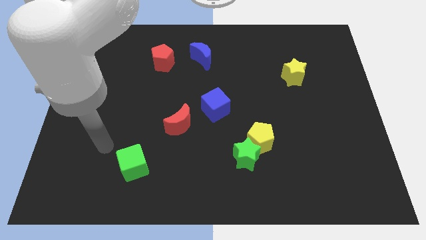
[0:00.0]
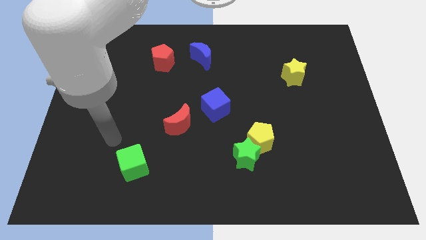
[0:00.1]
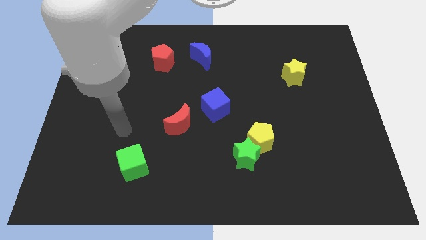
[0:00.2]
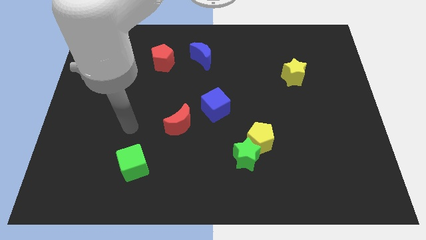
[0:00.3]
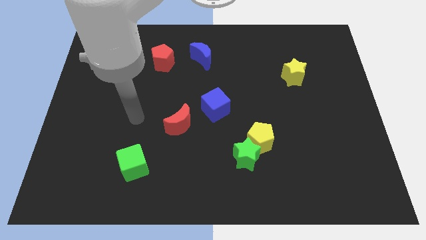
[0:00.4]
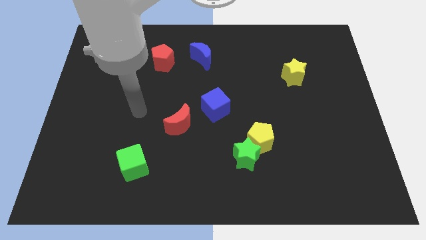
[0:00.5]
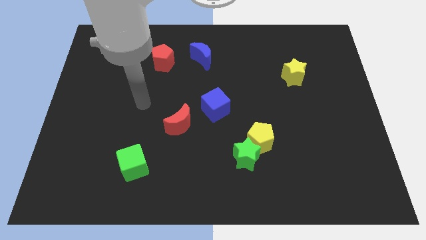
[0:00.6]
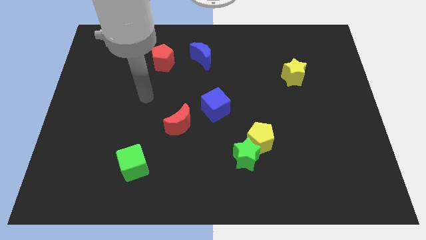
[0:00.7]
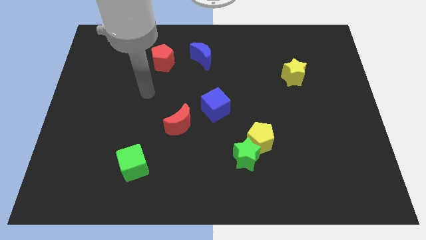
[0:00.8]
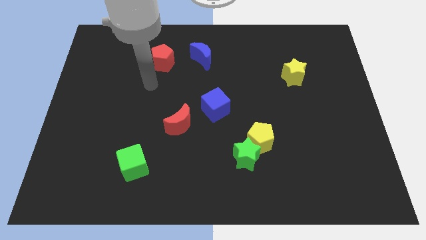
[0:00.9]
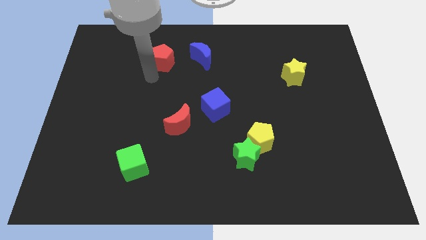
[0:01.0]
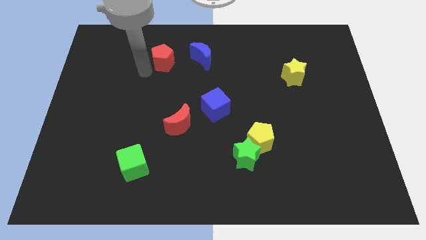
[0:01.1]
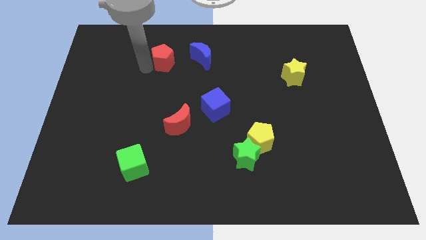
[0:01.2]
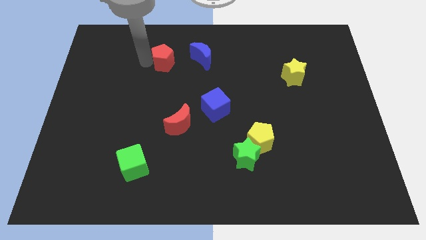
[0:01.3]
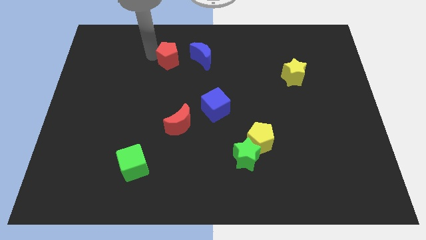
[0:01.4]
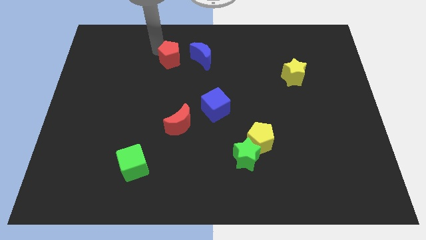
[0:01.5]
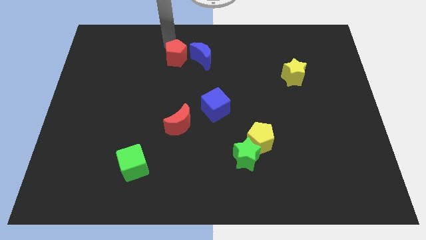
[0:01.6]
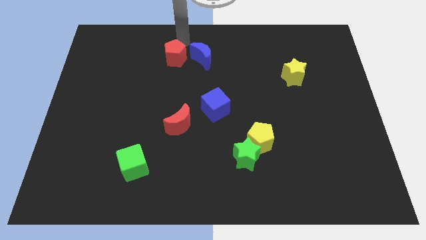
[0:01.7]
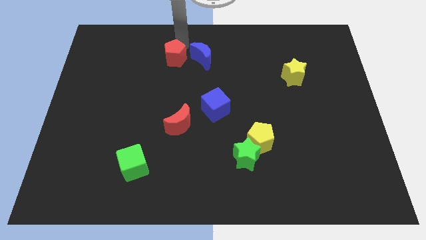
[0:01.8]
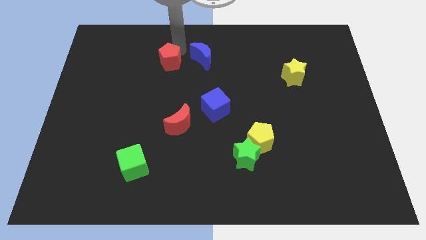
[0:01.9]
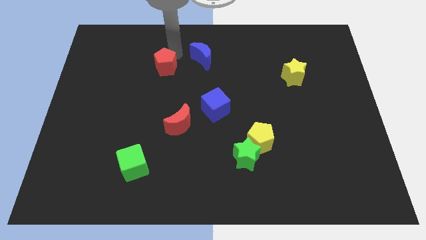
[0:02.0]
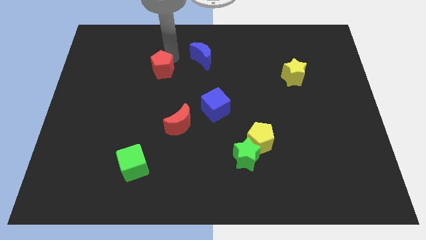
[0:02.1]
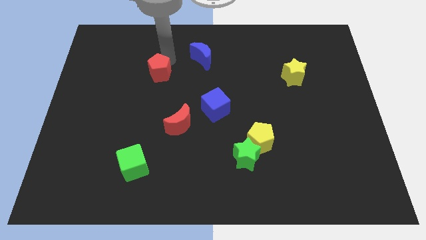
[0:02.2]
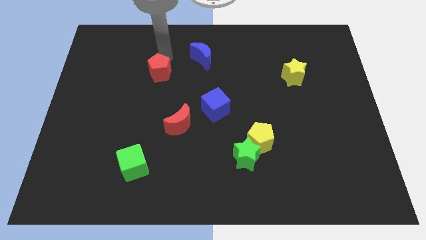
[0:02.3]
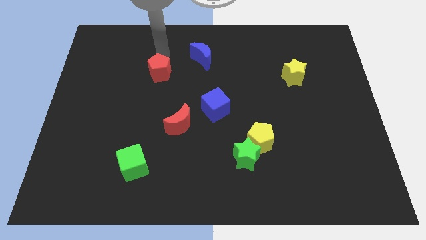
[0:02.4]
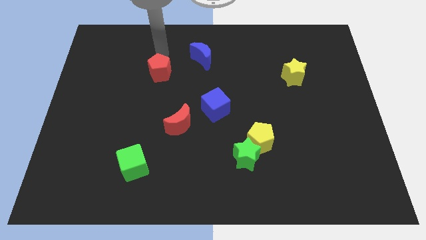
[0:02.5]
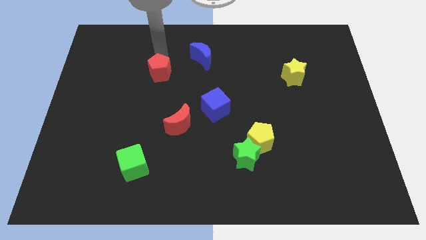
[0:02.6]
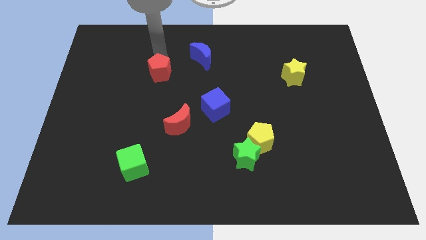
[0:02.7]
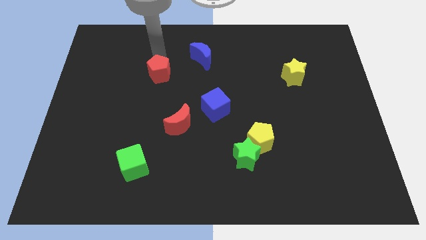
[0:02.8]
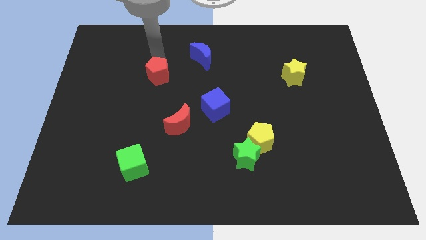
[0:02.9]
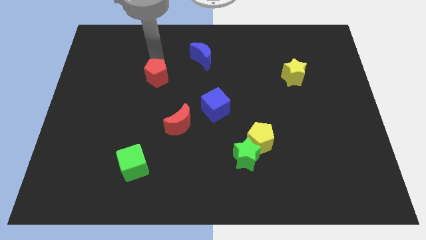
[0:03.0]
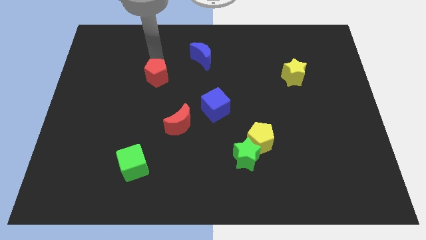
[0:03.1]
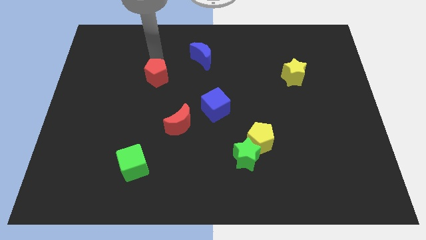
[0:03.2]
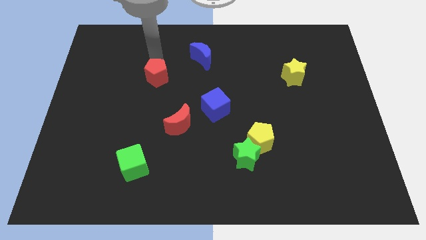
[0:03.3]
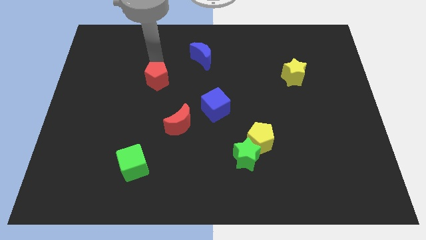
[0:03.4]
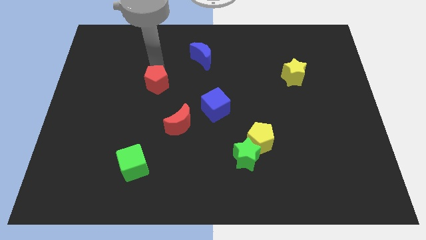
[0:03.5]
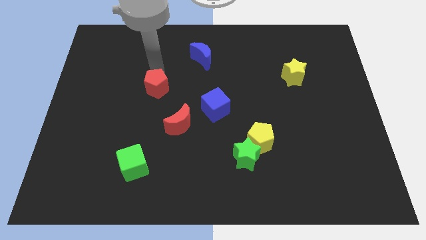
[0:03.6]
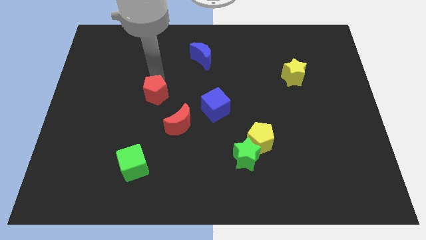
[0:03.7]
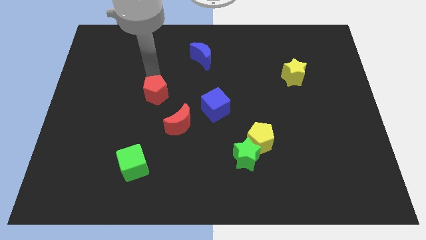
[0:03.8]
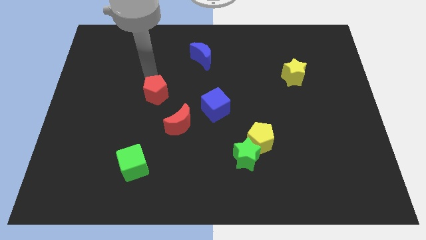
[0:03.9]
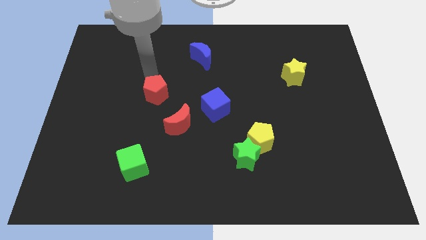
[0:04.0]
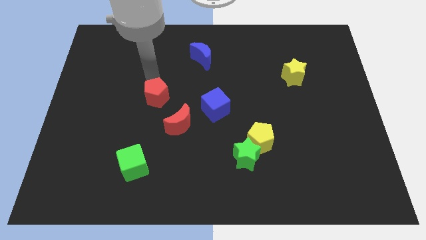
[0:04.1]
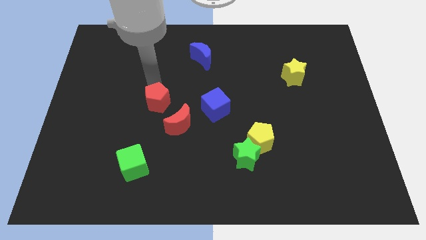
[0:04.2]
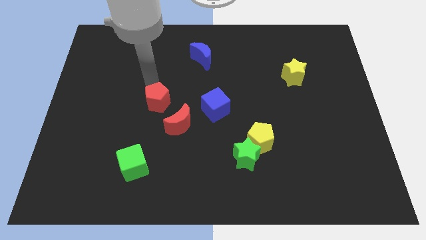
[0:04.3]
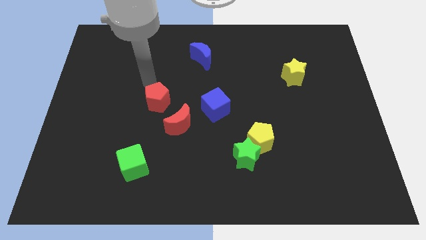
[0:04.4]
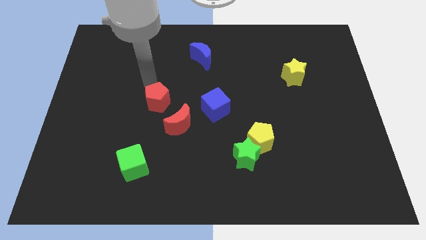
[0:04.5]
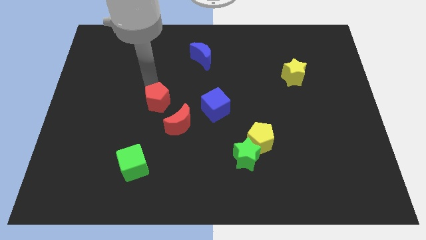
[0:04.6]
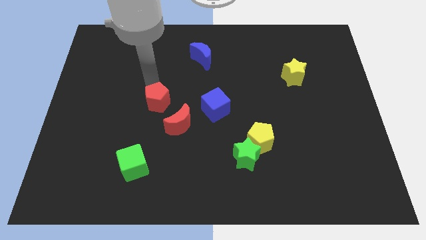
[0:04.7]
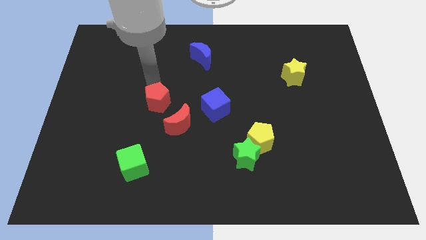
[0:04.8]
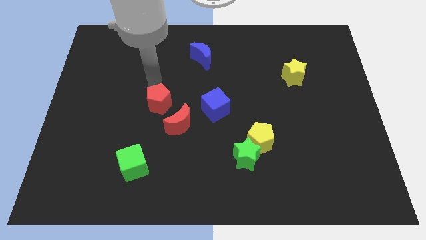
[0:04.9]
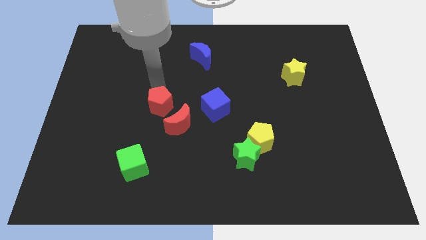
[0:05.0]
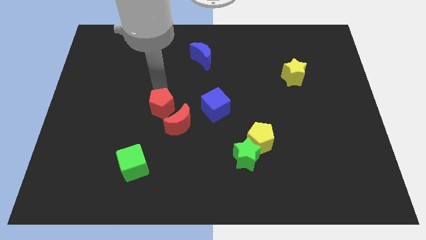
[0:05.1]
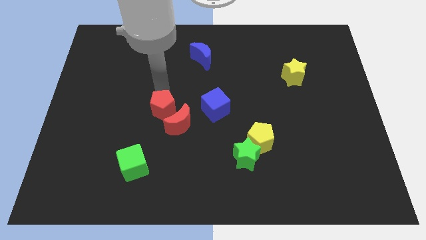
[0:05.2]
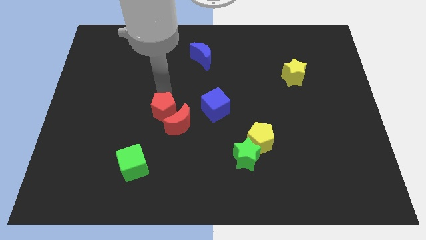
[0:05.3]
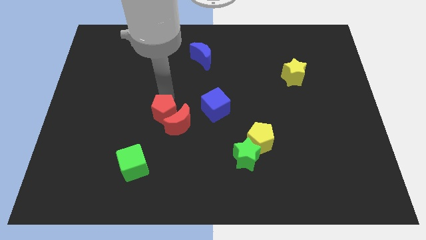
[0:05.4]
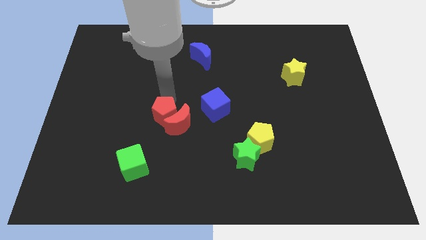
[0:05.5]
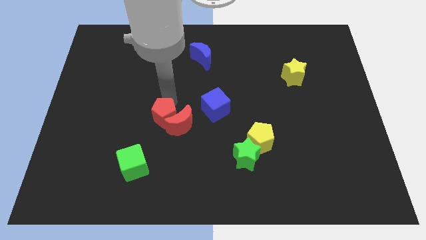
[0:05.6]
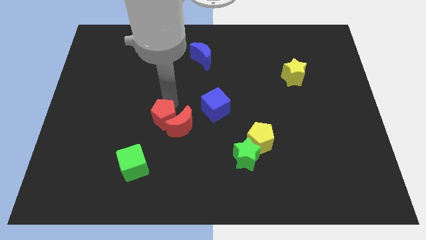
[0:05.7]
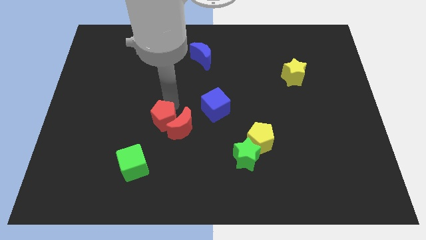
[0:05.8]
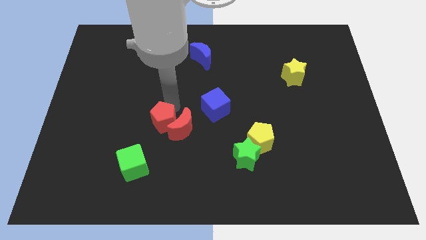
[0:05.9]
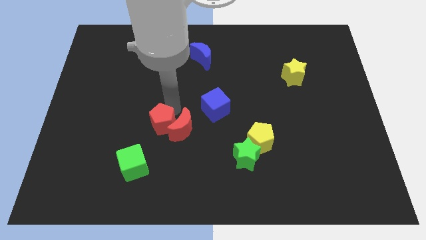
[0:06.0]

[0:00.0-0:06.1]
move the red pentagon down

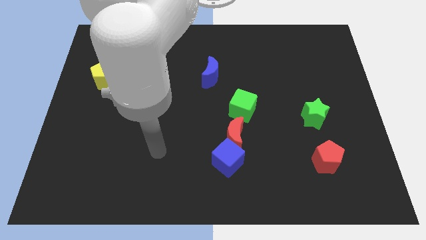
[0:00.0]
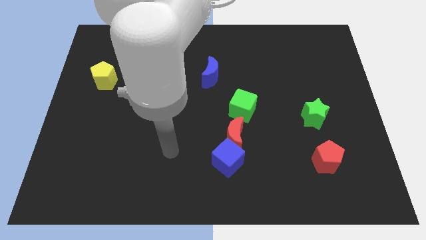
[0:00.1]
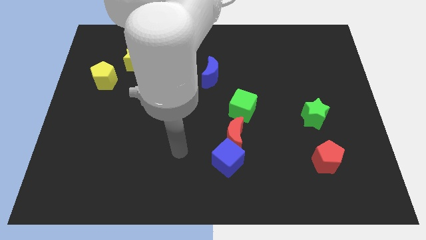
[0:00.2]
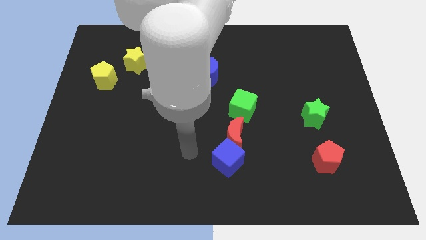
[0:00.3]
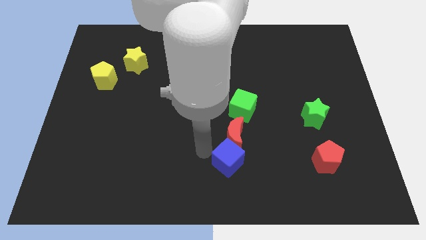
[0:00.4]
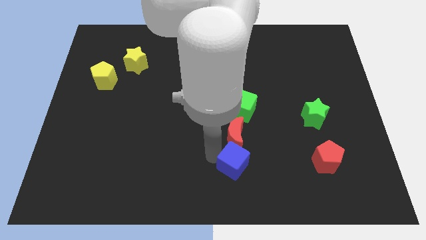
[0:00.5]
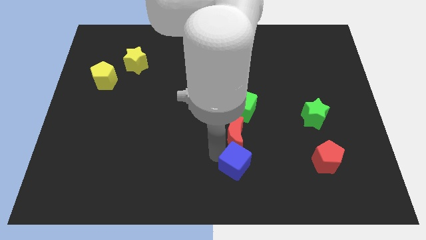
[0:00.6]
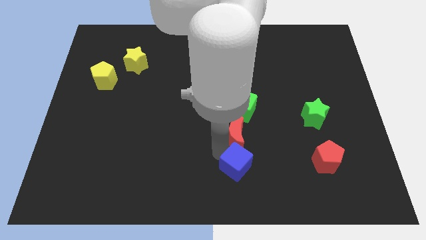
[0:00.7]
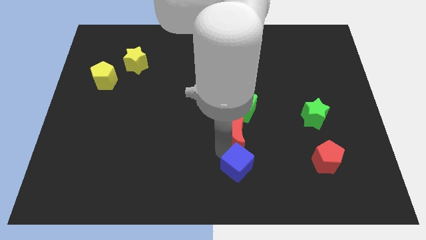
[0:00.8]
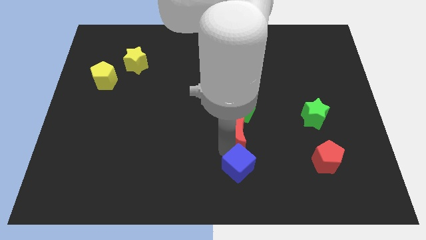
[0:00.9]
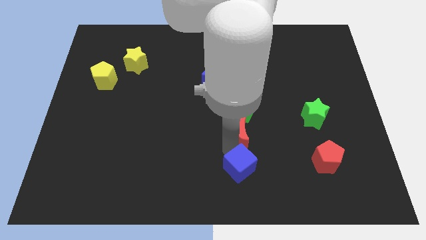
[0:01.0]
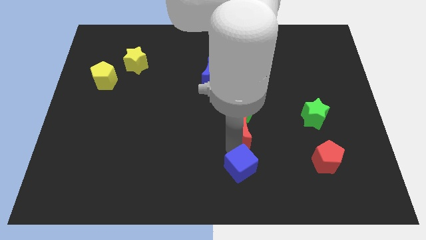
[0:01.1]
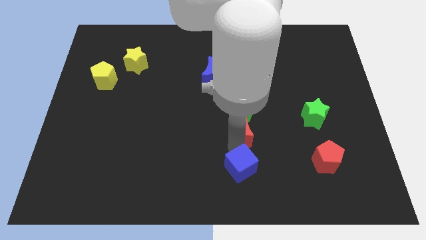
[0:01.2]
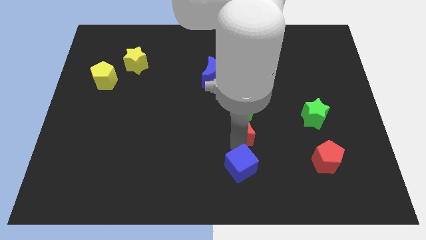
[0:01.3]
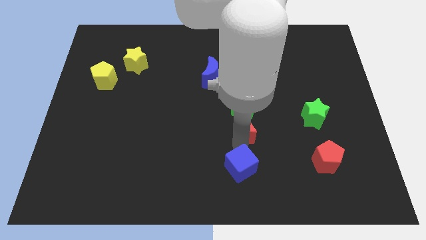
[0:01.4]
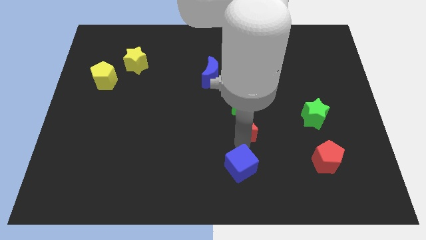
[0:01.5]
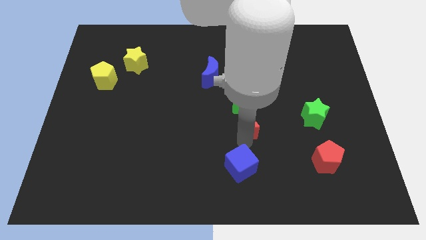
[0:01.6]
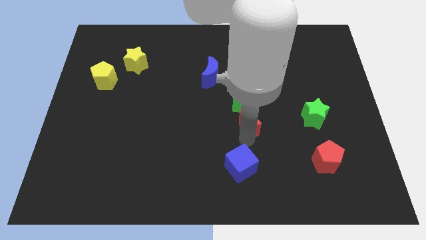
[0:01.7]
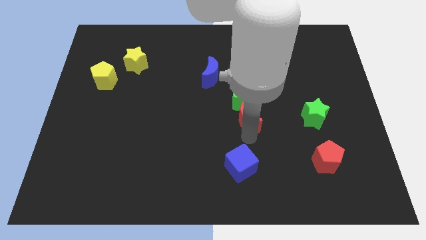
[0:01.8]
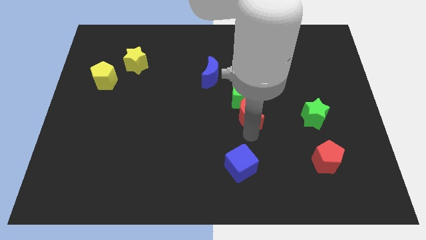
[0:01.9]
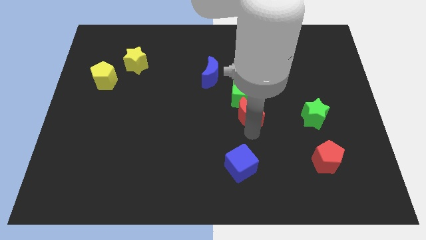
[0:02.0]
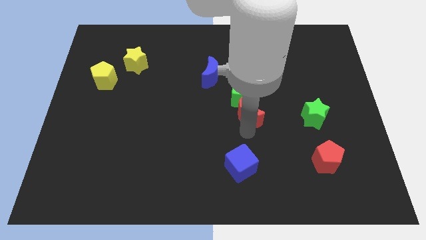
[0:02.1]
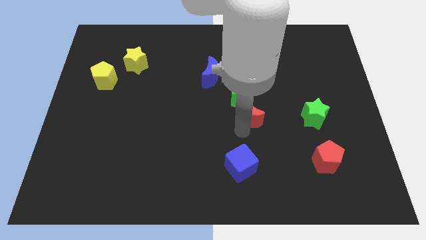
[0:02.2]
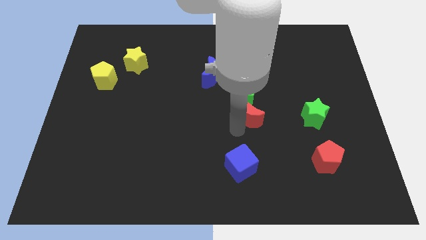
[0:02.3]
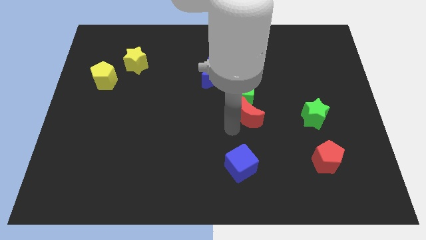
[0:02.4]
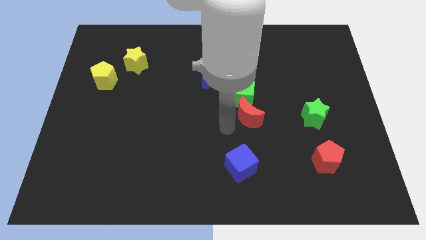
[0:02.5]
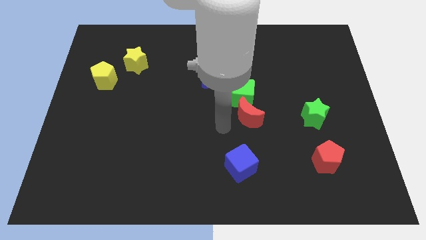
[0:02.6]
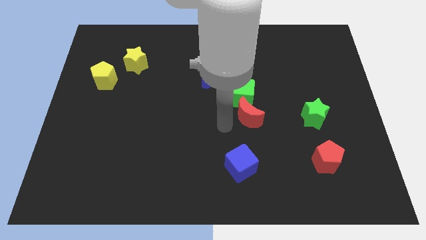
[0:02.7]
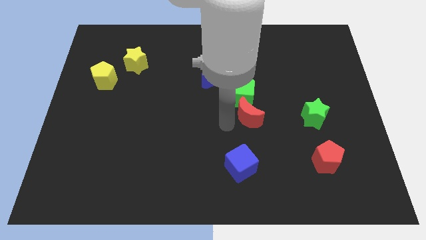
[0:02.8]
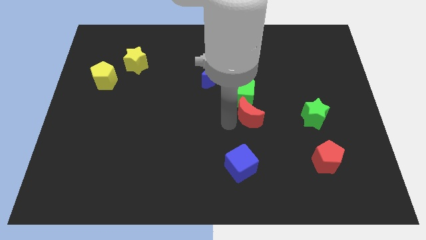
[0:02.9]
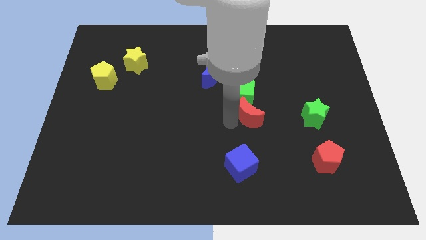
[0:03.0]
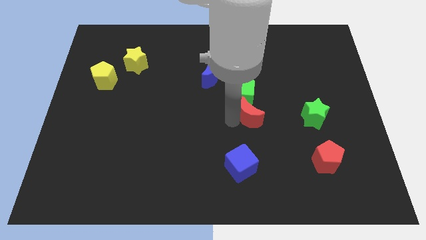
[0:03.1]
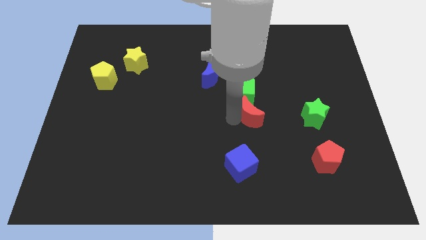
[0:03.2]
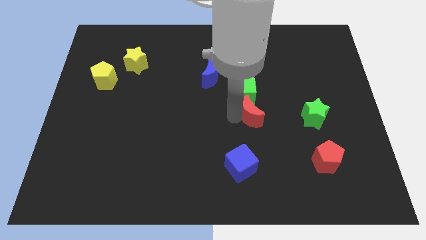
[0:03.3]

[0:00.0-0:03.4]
slightly push the red moon up and then to the right
